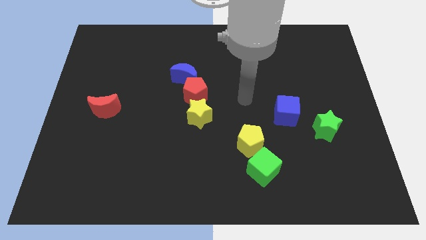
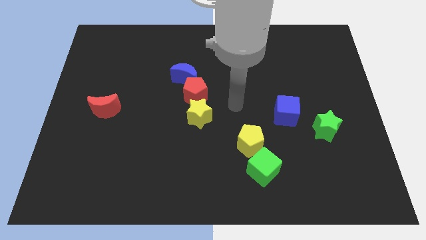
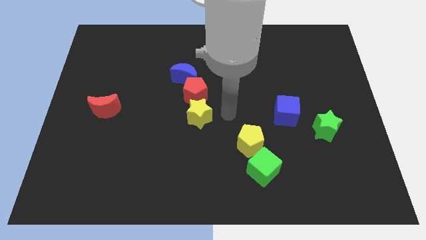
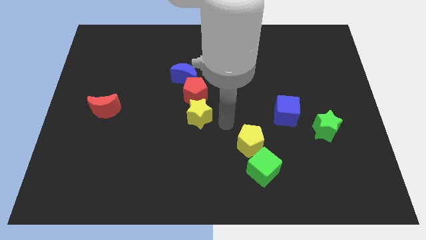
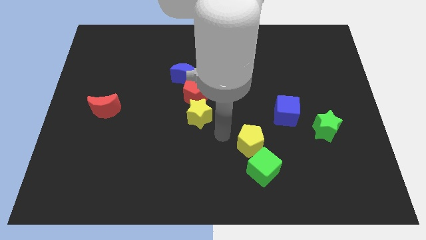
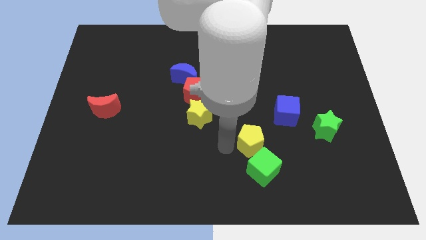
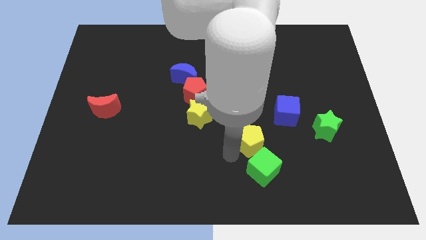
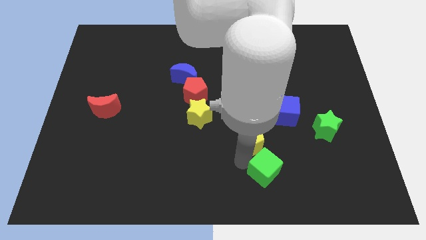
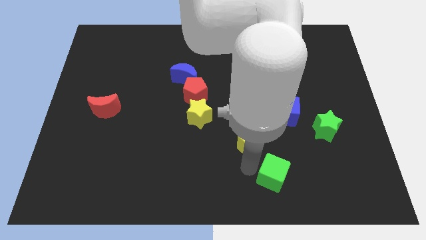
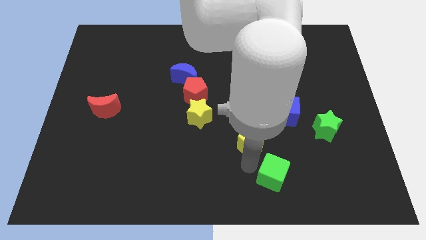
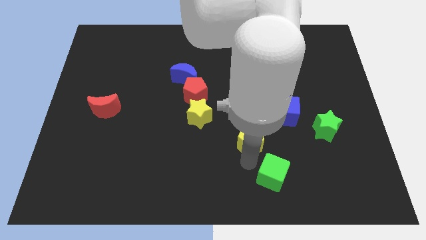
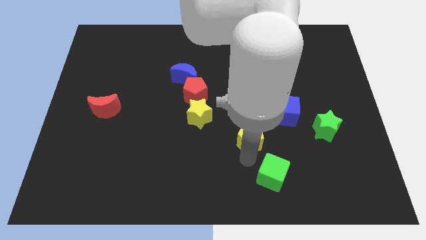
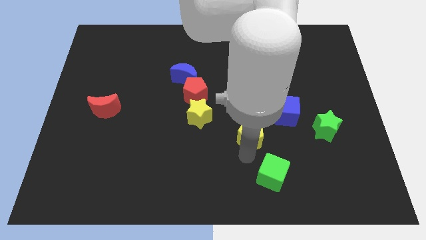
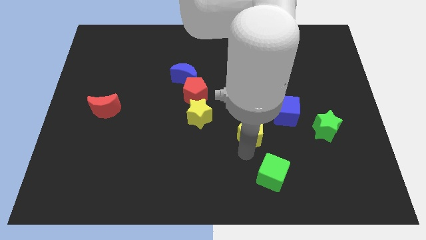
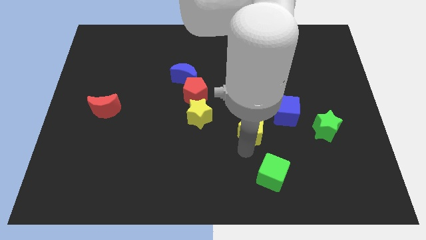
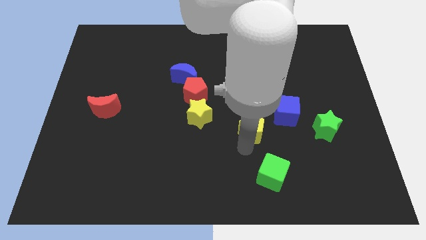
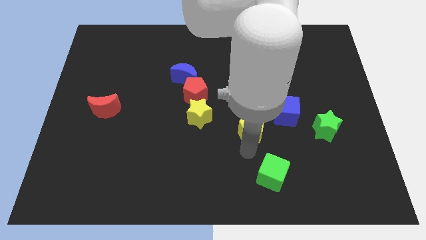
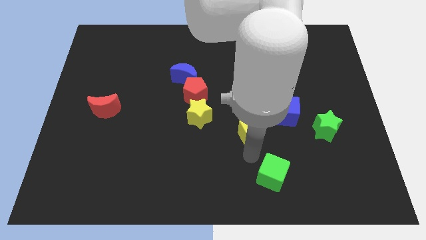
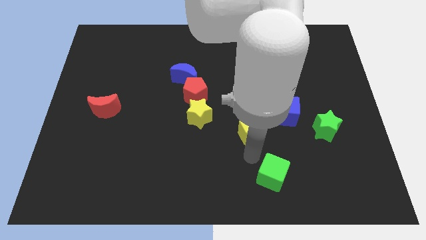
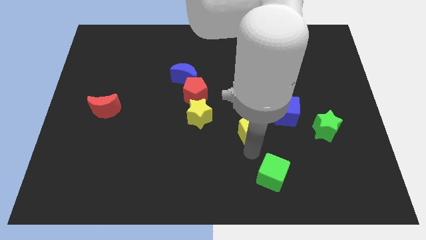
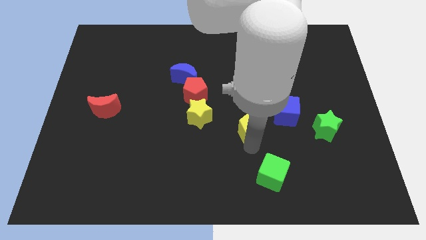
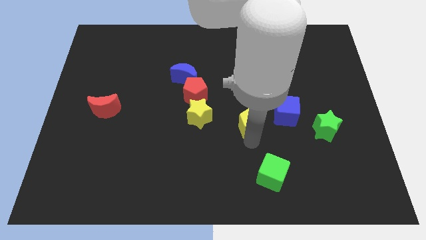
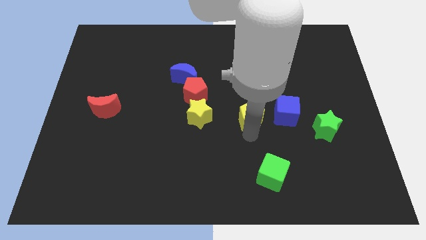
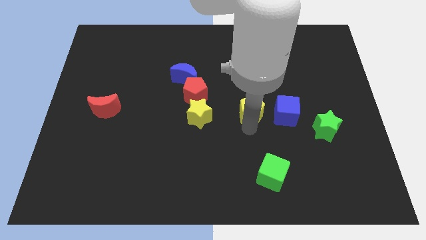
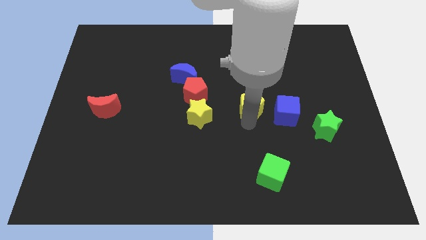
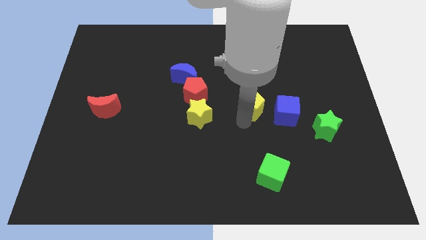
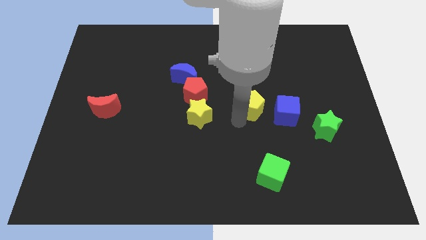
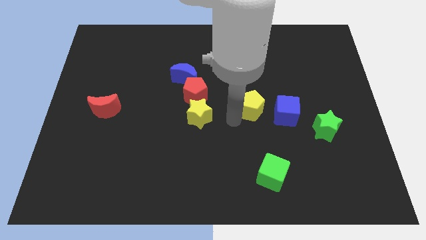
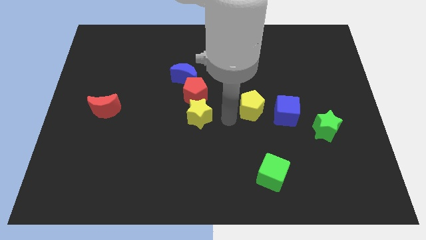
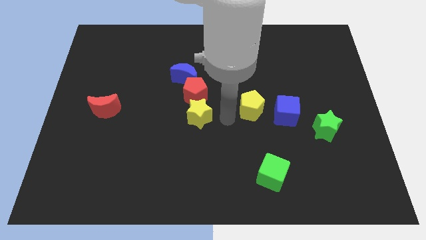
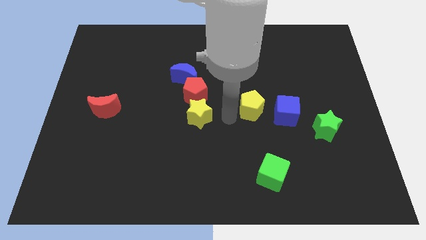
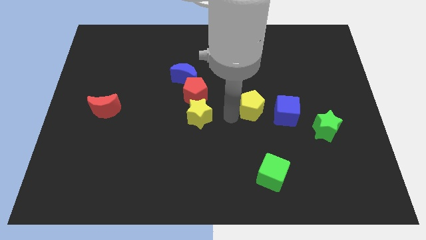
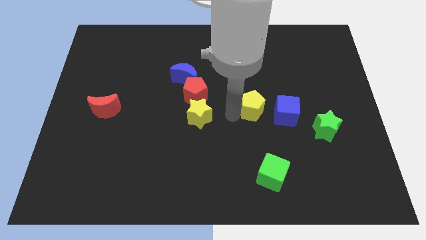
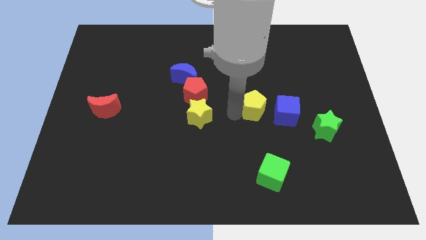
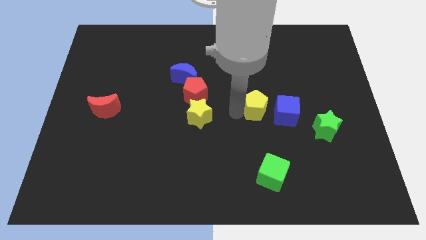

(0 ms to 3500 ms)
slightly push the yellow pentagon upwards and then right

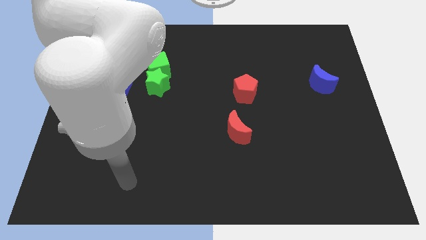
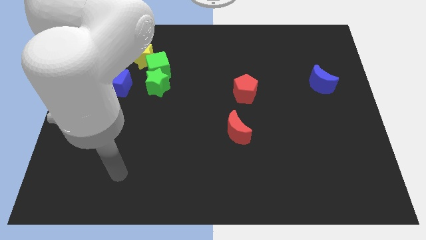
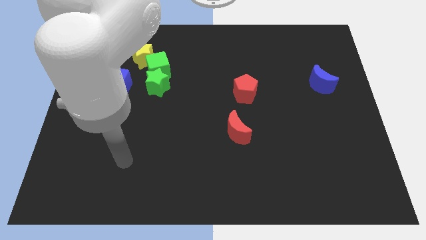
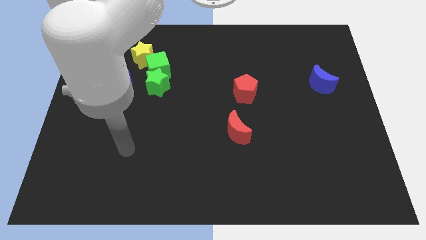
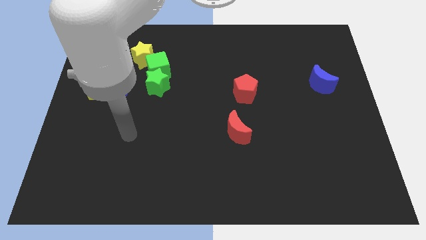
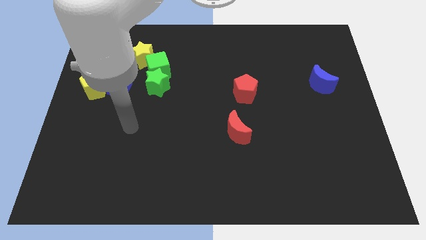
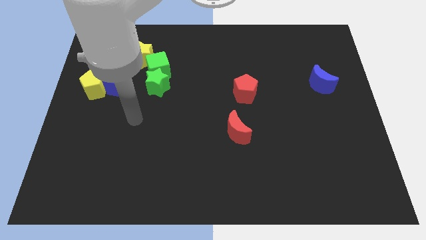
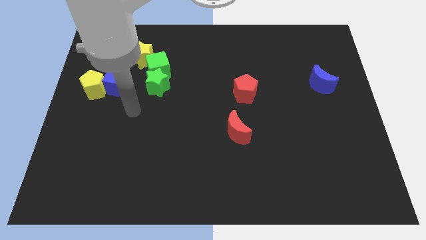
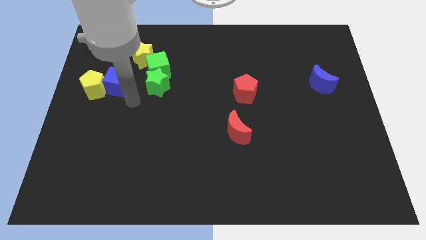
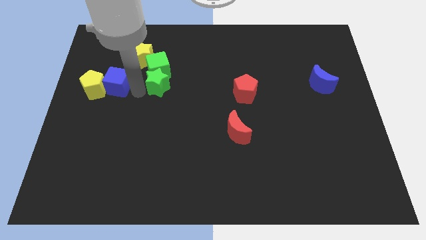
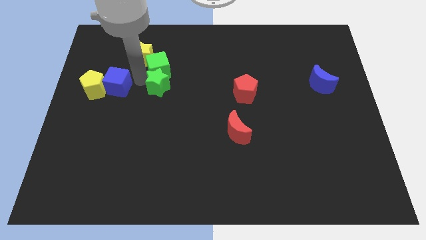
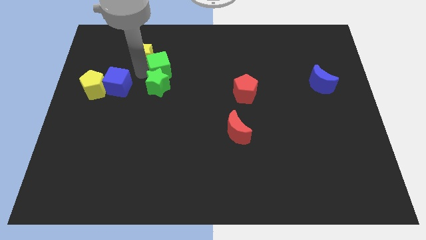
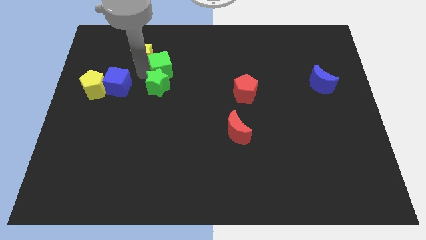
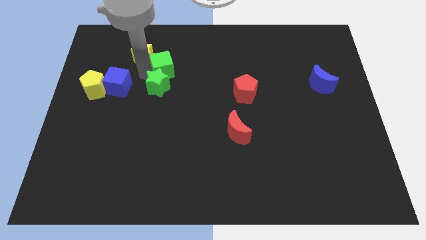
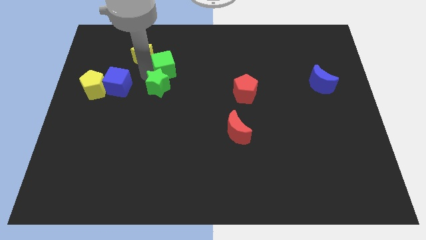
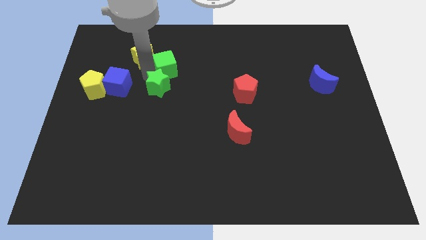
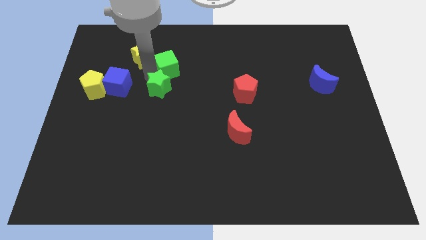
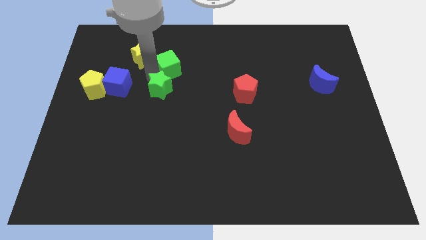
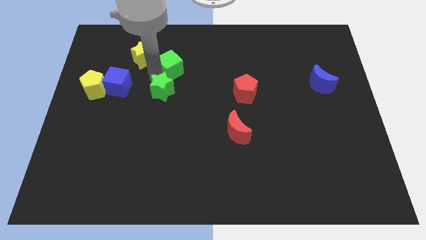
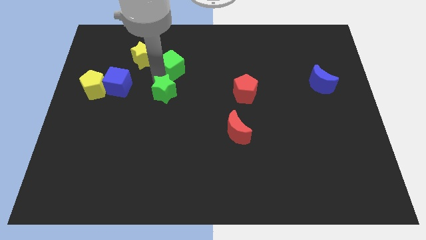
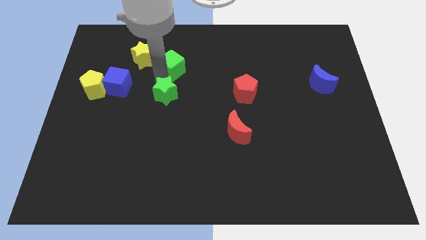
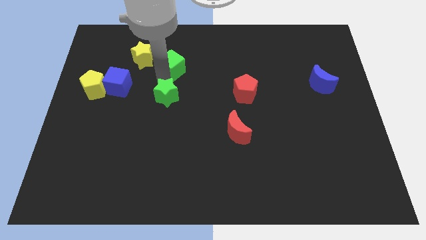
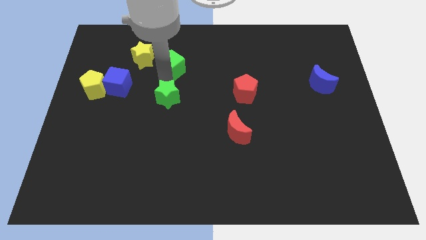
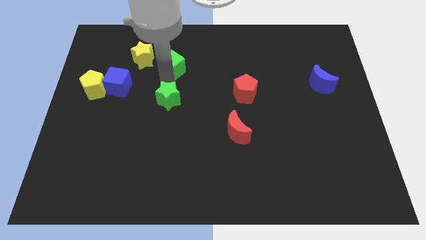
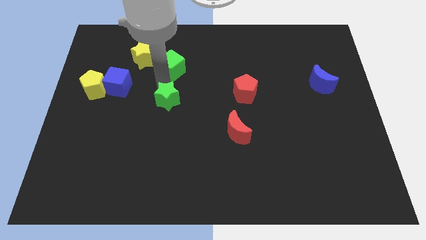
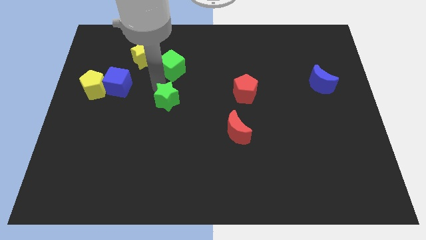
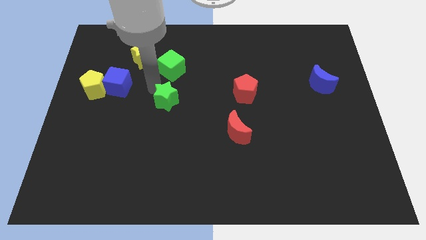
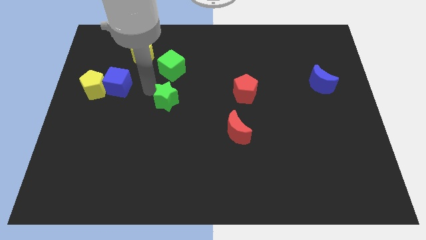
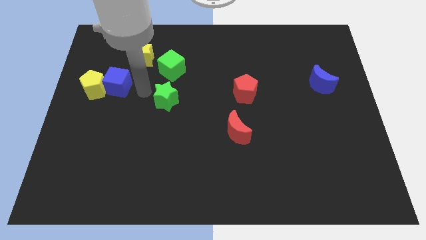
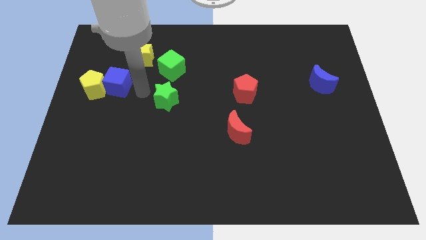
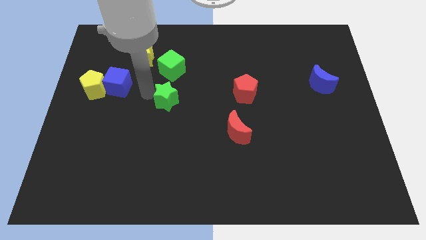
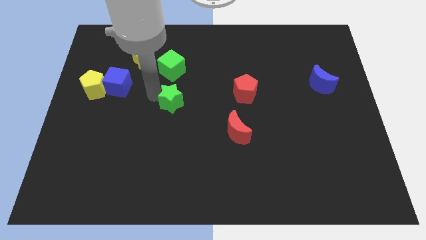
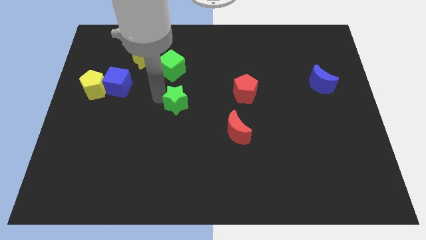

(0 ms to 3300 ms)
slide the green star somewhat downwards and to the right

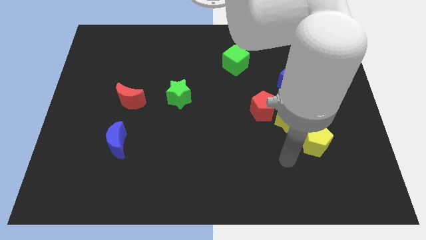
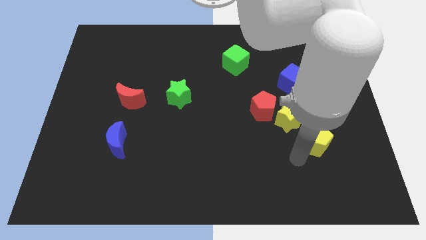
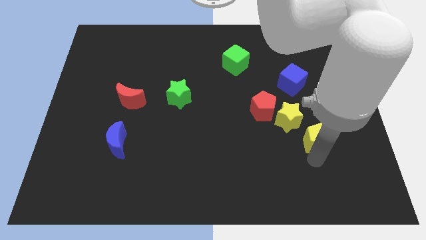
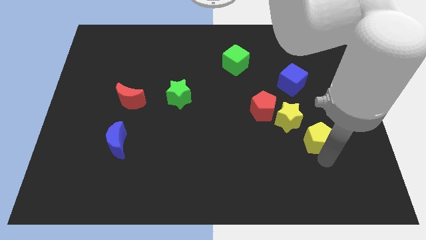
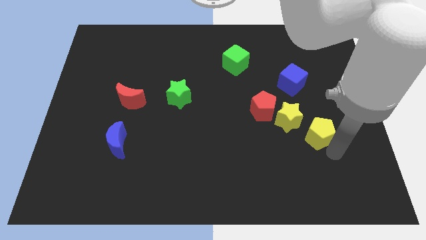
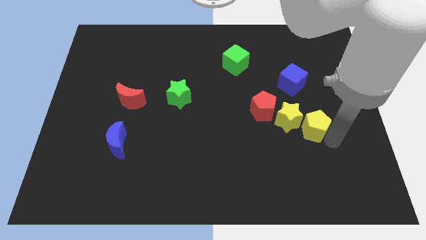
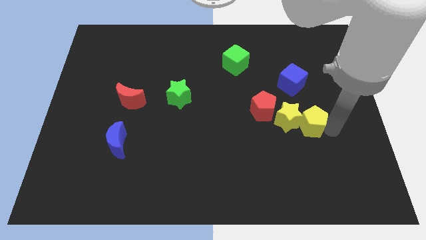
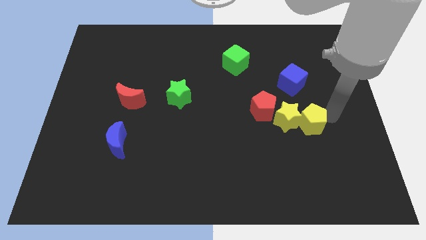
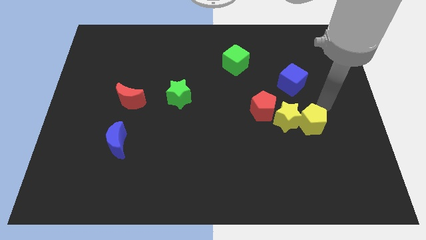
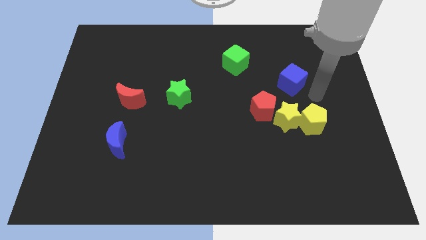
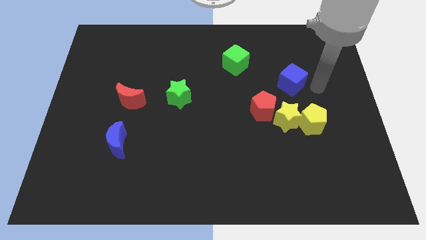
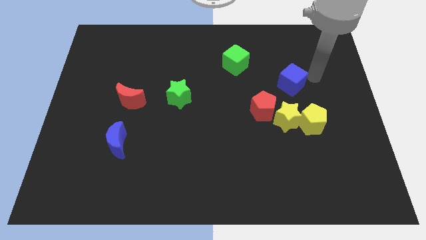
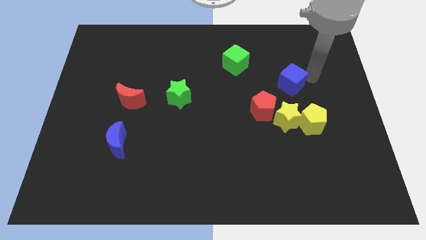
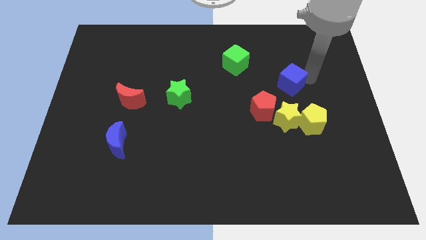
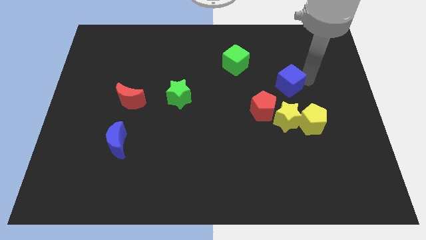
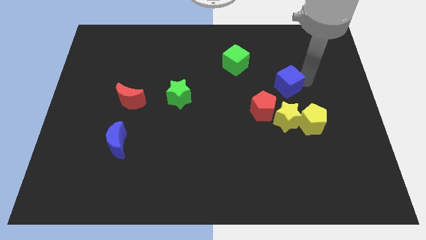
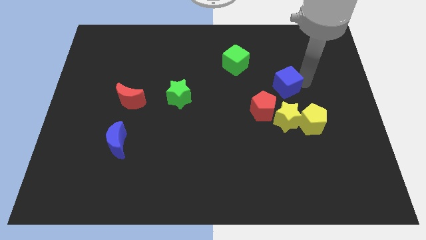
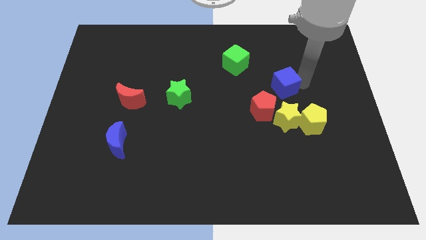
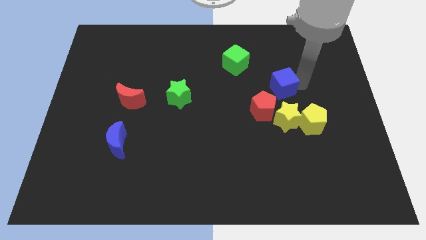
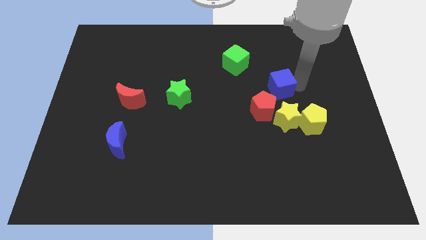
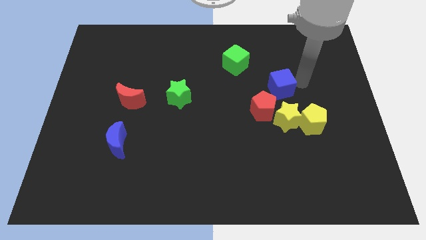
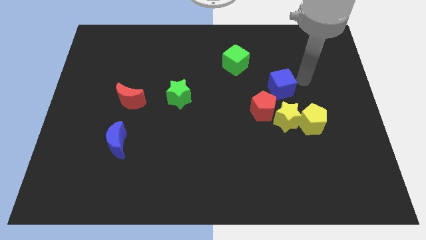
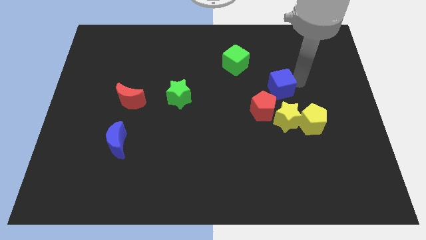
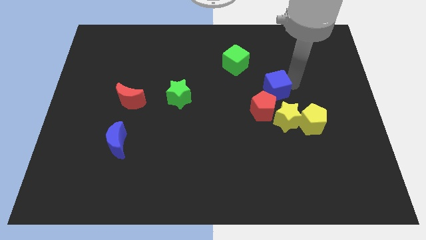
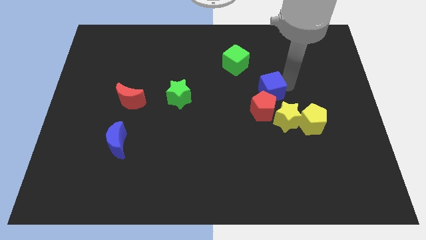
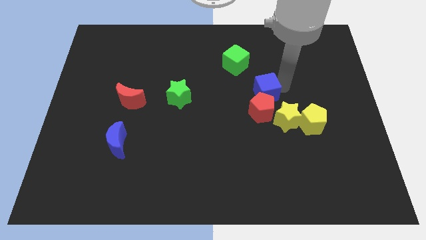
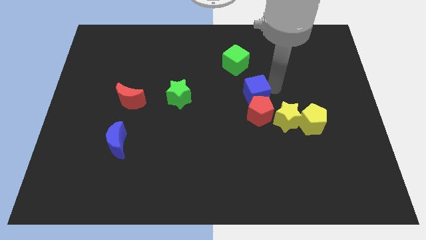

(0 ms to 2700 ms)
push the blue cube downwards and left diagonally a little
